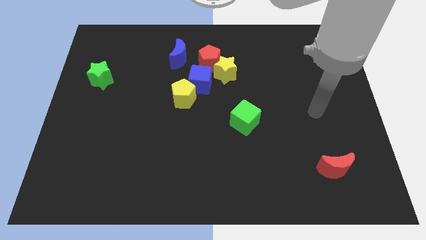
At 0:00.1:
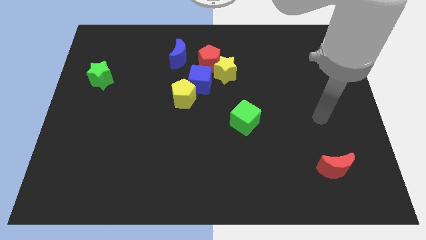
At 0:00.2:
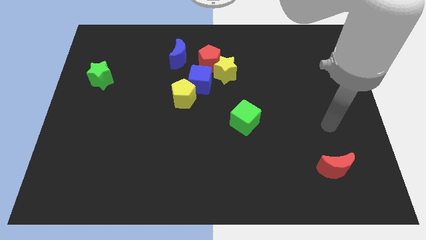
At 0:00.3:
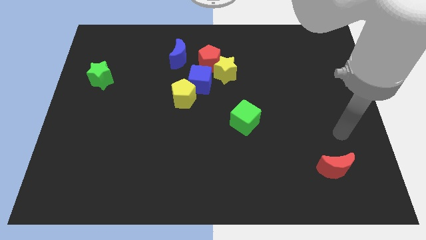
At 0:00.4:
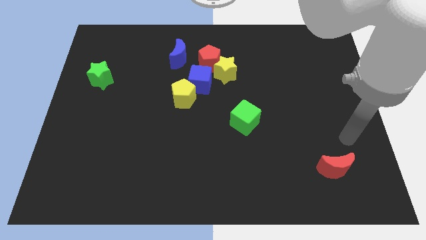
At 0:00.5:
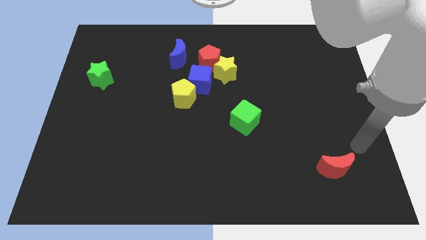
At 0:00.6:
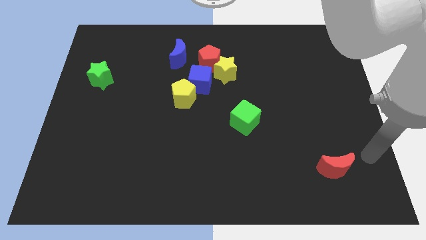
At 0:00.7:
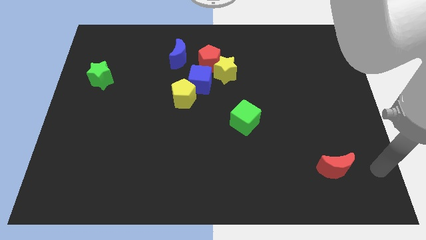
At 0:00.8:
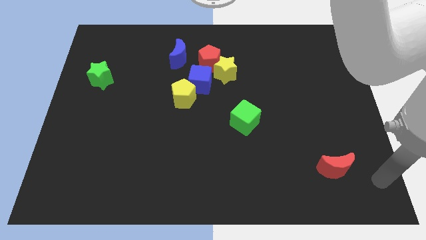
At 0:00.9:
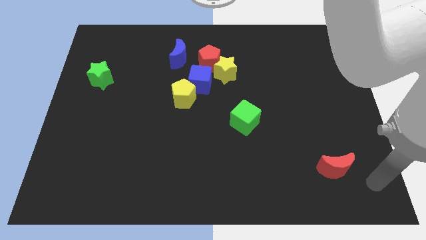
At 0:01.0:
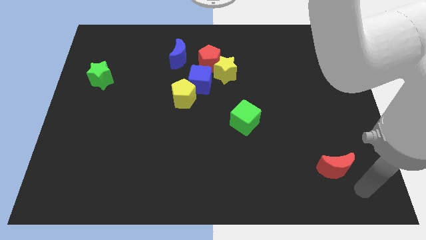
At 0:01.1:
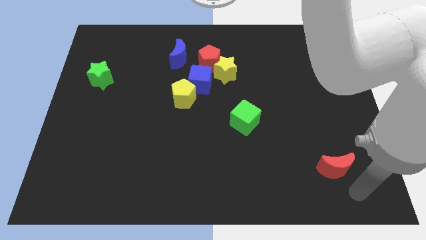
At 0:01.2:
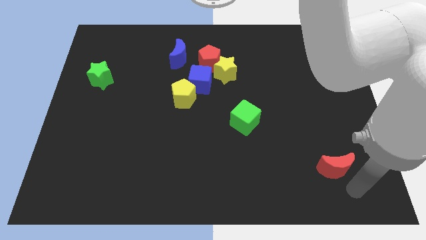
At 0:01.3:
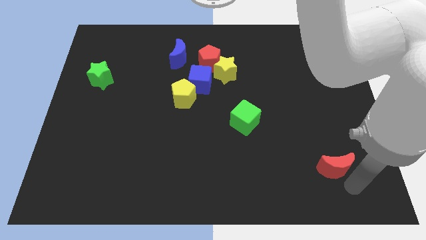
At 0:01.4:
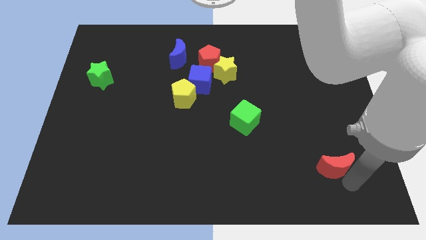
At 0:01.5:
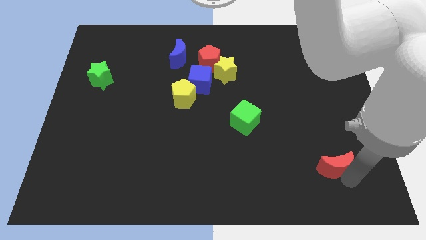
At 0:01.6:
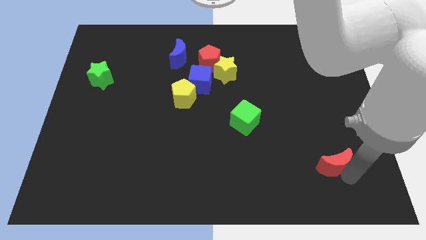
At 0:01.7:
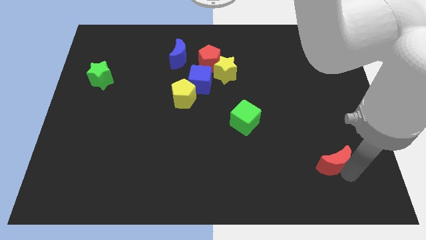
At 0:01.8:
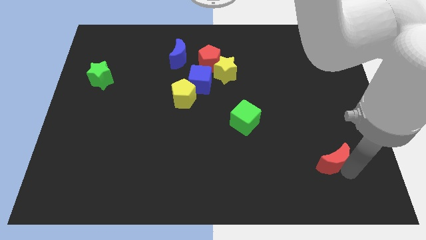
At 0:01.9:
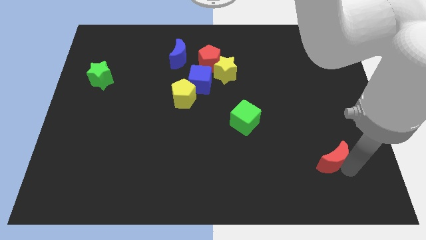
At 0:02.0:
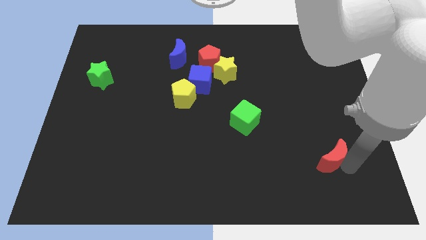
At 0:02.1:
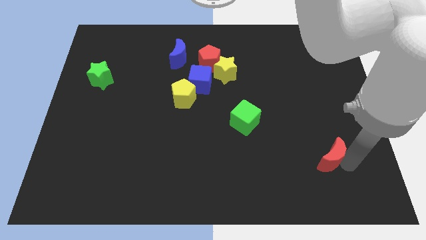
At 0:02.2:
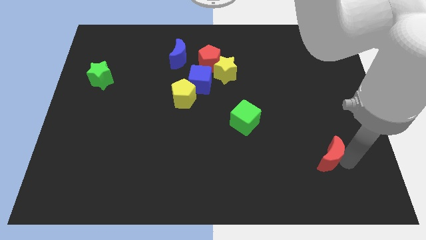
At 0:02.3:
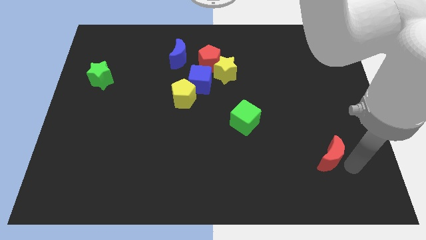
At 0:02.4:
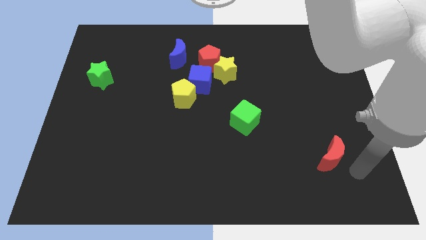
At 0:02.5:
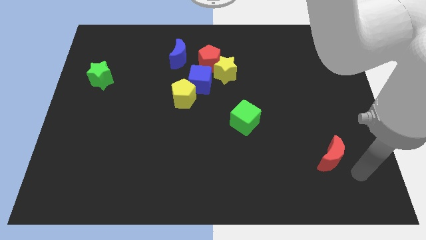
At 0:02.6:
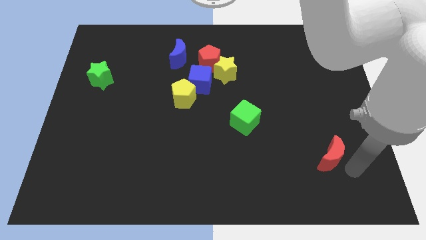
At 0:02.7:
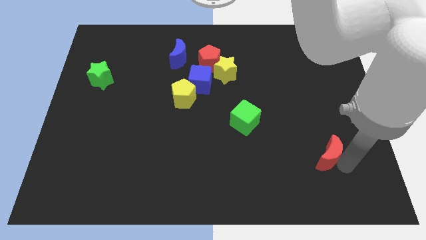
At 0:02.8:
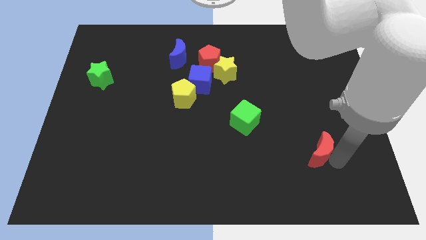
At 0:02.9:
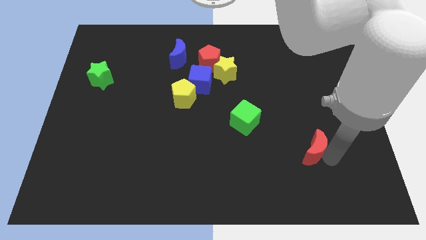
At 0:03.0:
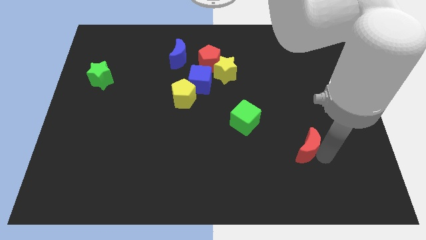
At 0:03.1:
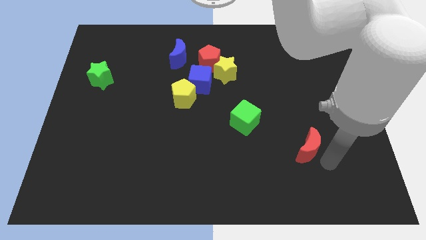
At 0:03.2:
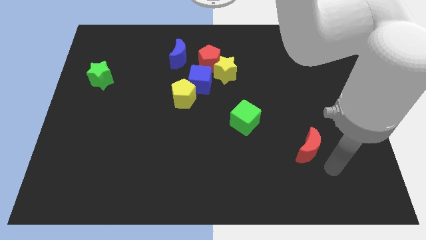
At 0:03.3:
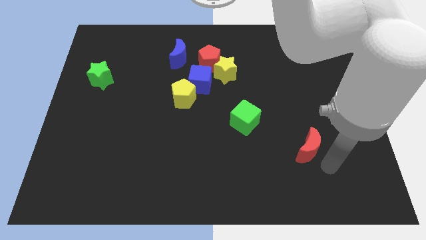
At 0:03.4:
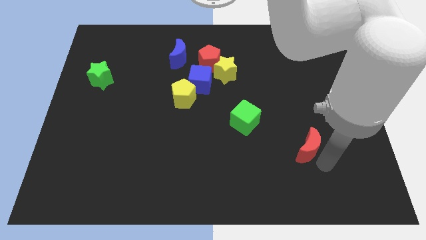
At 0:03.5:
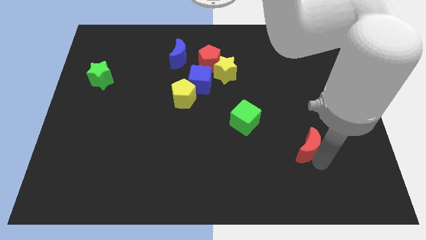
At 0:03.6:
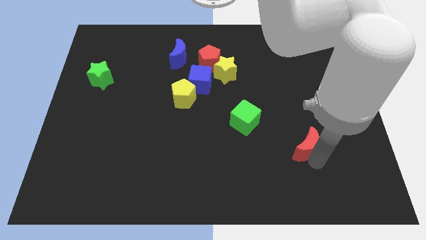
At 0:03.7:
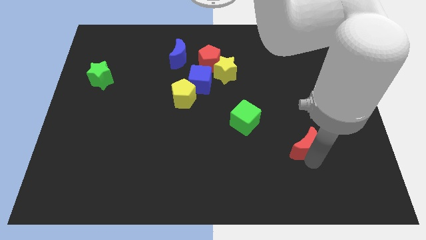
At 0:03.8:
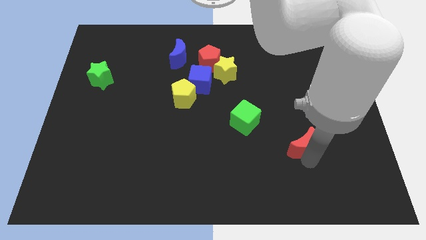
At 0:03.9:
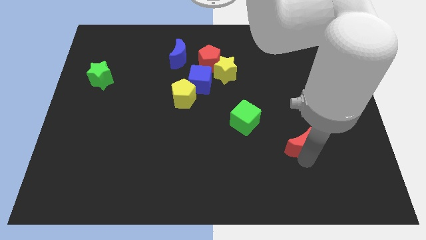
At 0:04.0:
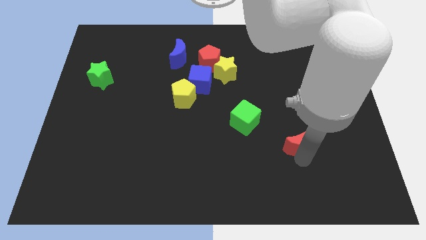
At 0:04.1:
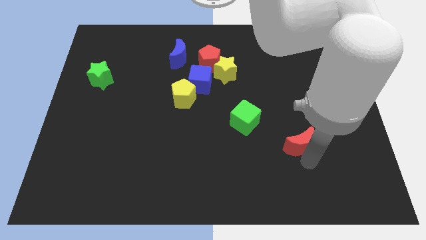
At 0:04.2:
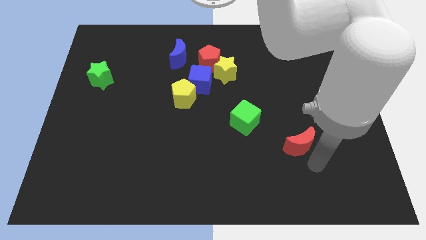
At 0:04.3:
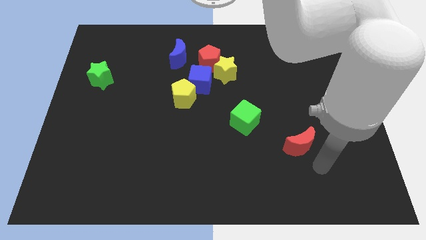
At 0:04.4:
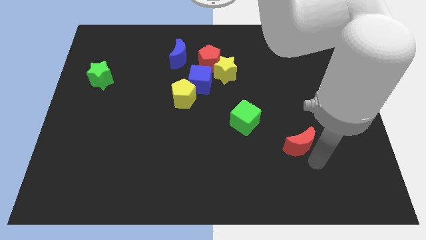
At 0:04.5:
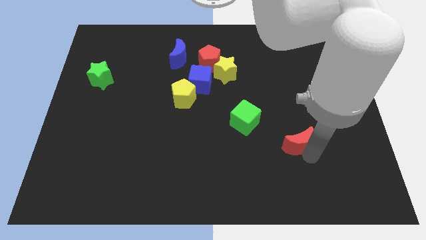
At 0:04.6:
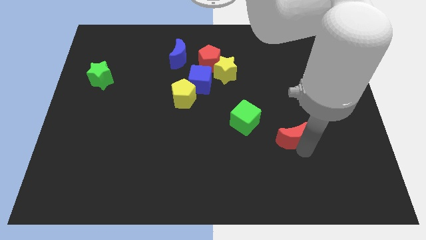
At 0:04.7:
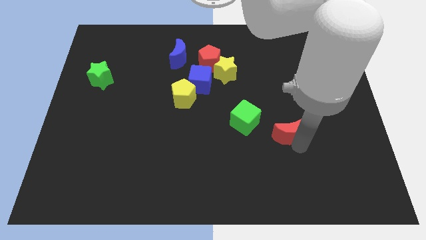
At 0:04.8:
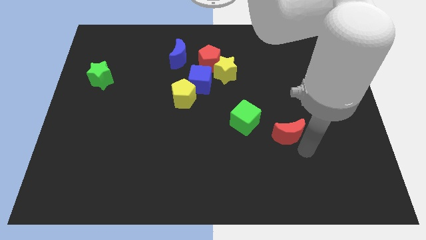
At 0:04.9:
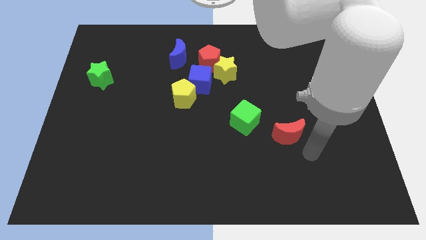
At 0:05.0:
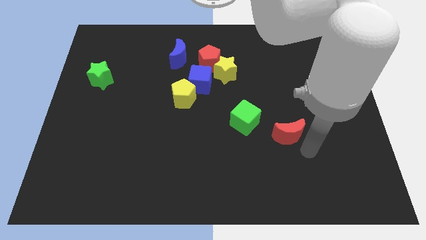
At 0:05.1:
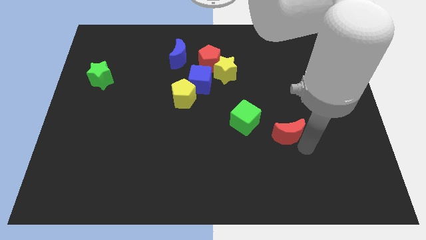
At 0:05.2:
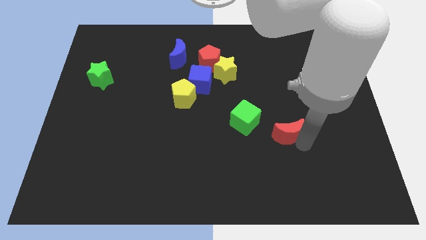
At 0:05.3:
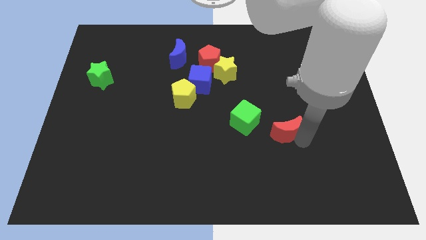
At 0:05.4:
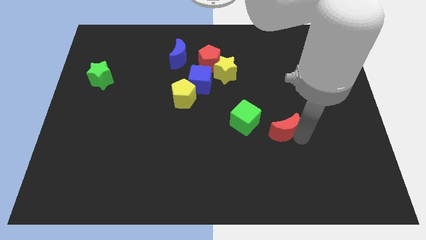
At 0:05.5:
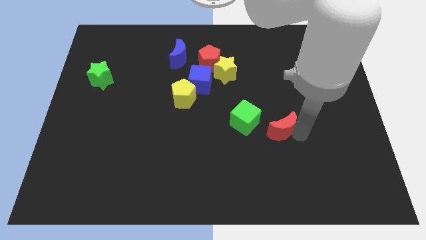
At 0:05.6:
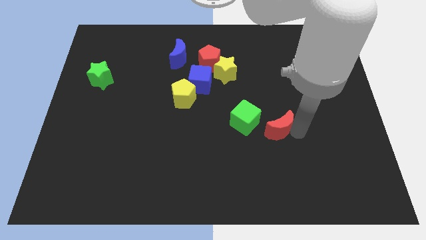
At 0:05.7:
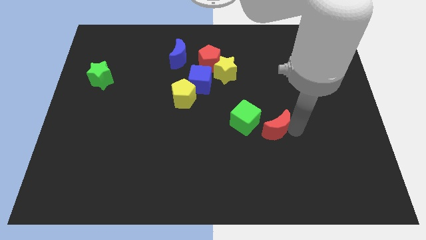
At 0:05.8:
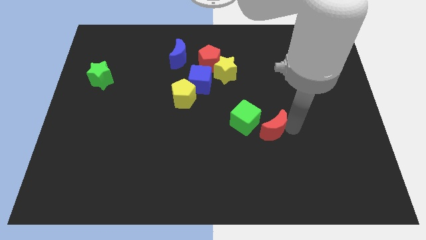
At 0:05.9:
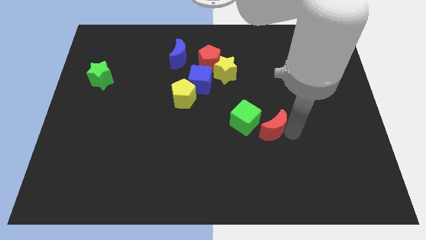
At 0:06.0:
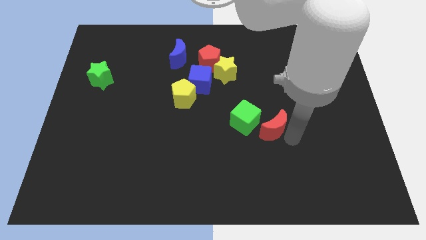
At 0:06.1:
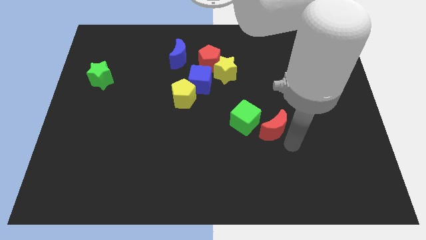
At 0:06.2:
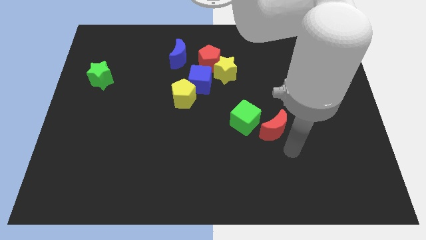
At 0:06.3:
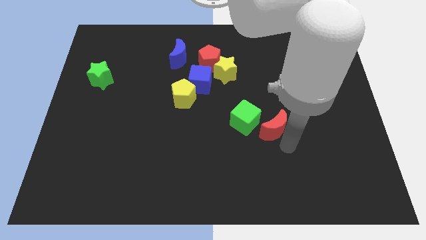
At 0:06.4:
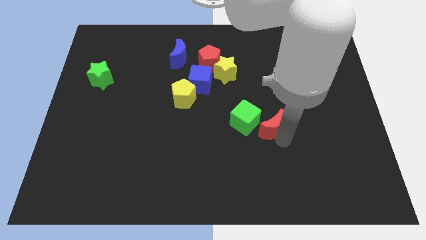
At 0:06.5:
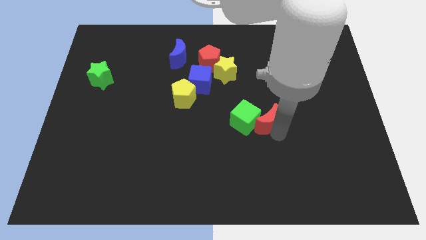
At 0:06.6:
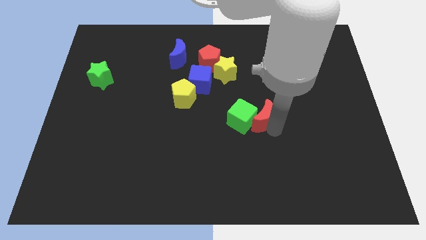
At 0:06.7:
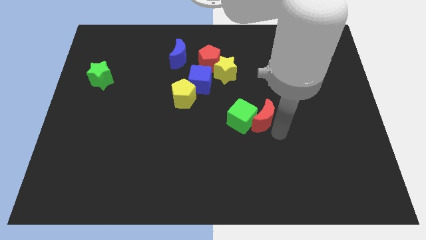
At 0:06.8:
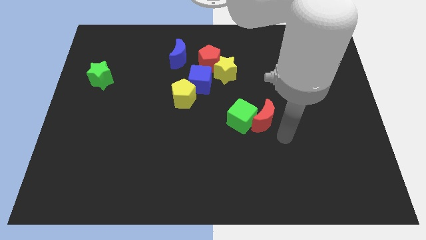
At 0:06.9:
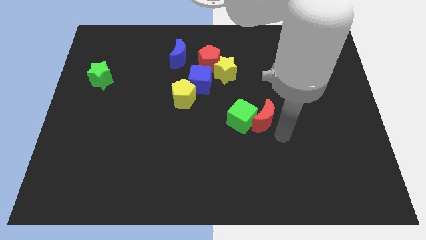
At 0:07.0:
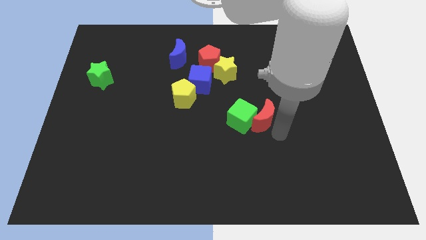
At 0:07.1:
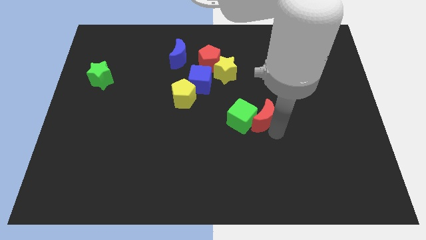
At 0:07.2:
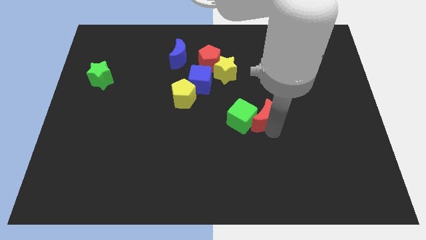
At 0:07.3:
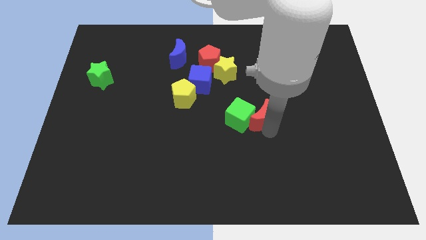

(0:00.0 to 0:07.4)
slide the red moon to the center
